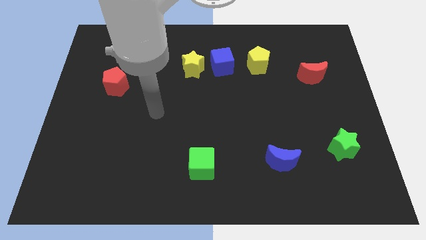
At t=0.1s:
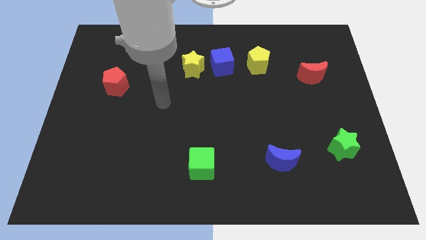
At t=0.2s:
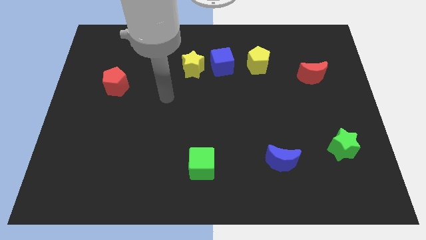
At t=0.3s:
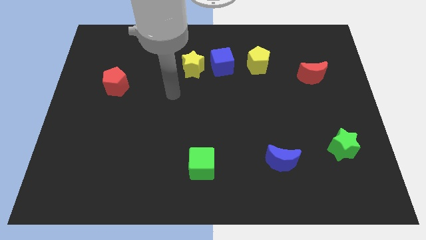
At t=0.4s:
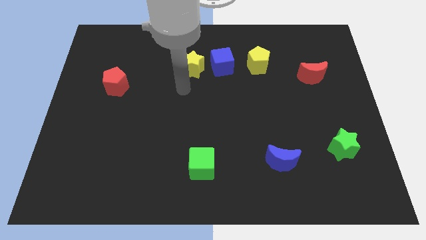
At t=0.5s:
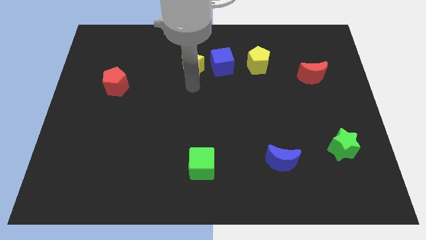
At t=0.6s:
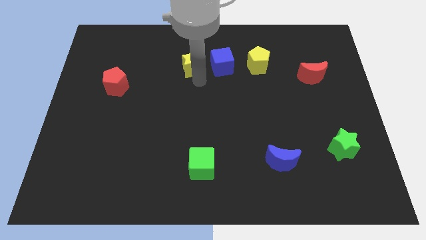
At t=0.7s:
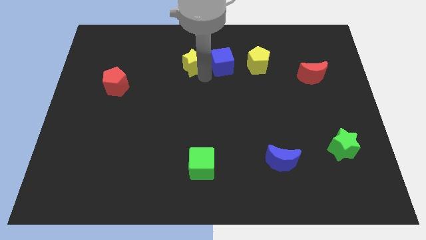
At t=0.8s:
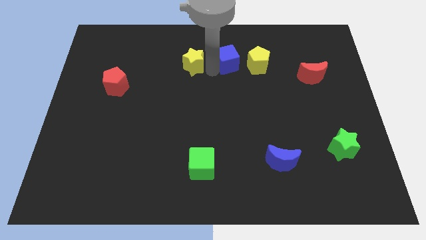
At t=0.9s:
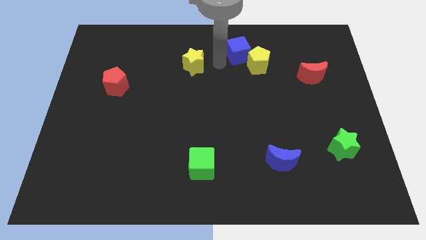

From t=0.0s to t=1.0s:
move the yellow star away from the blue cube

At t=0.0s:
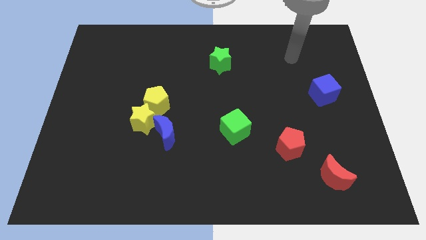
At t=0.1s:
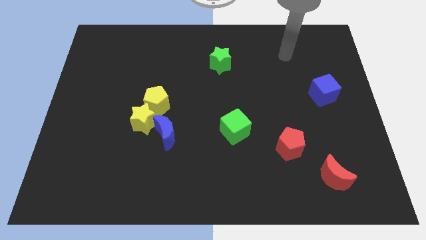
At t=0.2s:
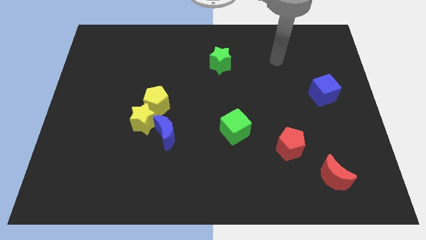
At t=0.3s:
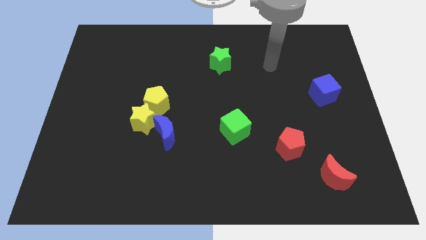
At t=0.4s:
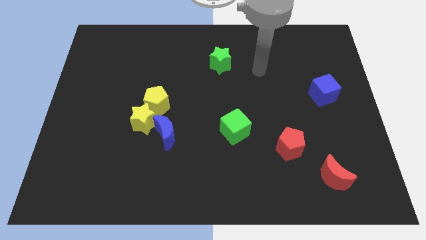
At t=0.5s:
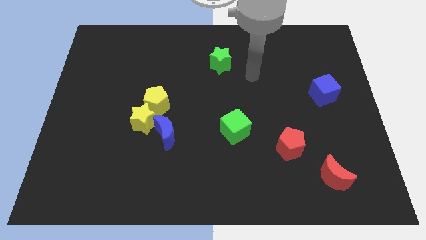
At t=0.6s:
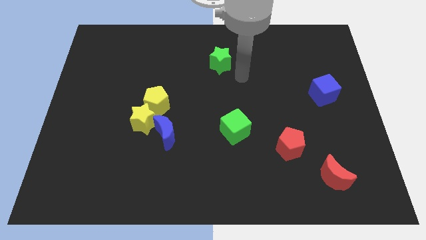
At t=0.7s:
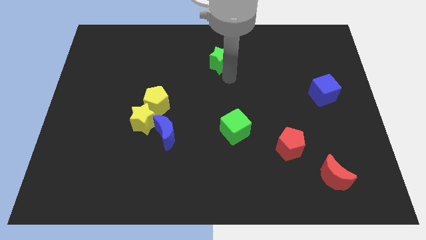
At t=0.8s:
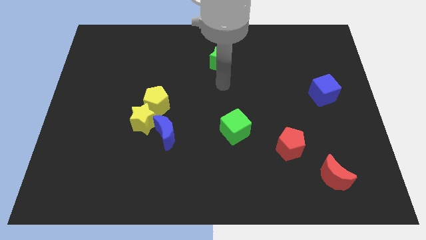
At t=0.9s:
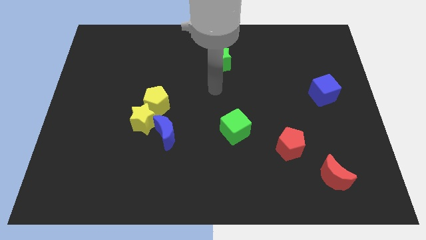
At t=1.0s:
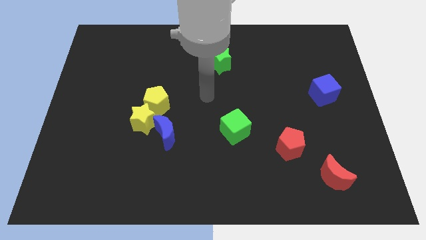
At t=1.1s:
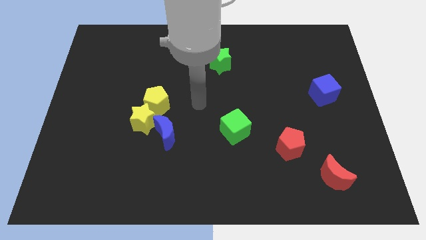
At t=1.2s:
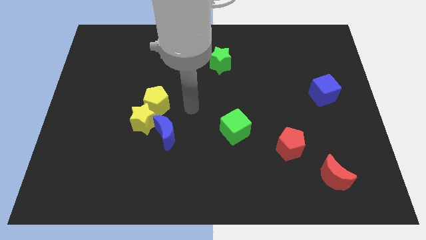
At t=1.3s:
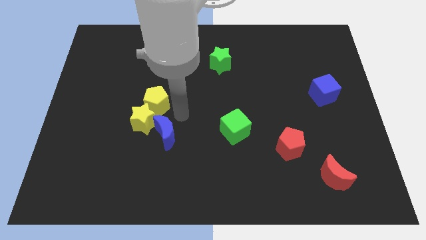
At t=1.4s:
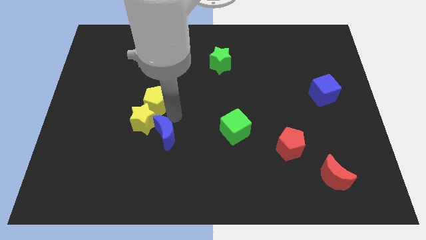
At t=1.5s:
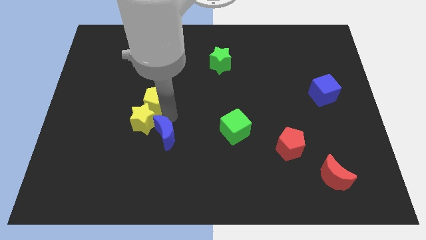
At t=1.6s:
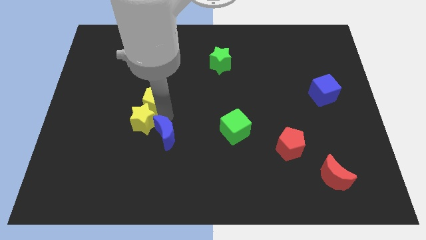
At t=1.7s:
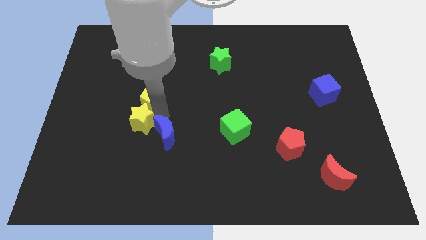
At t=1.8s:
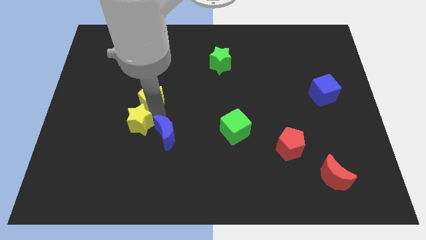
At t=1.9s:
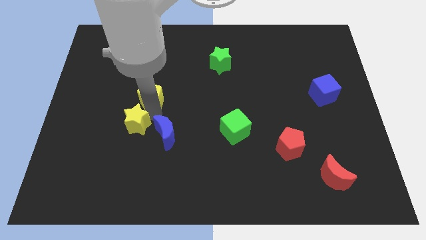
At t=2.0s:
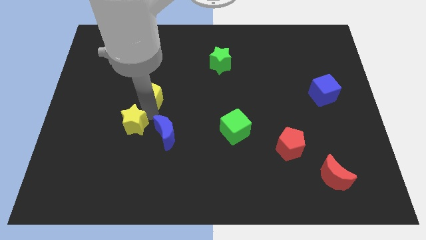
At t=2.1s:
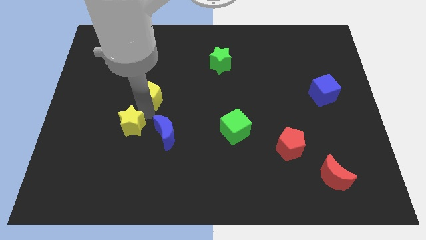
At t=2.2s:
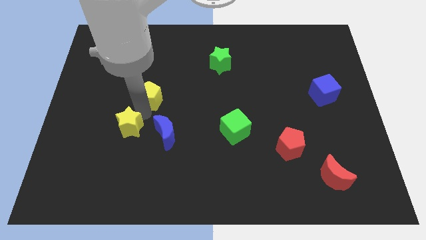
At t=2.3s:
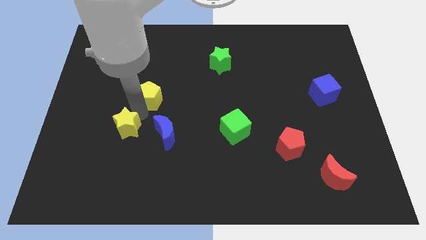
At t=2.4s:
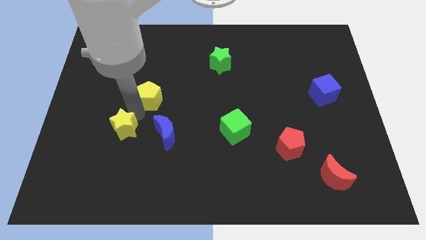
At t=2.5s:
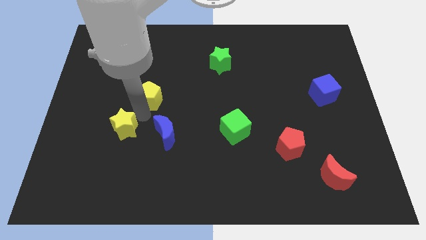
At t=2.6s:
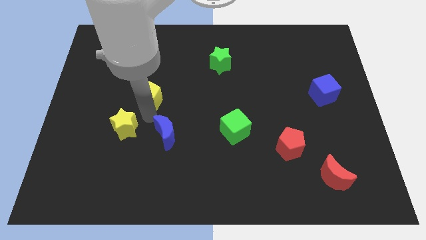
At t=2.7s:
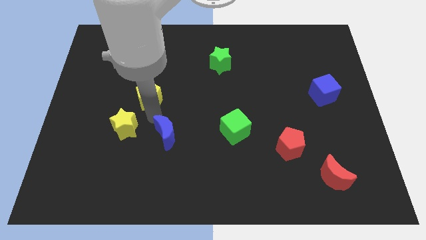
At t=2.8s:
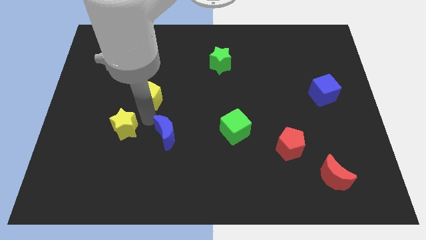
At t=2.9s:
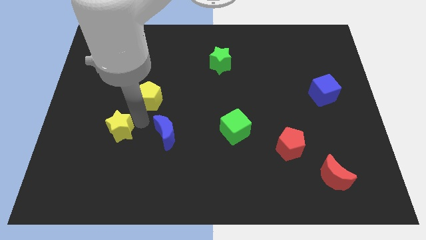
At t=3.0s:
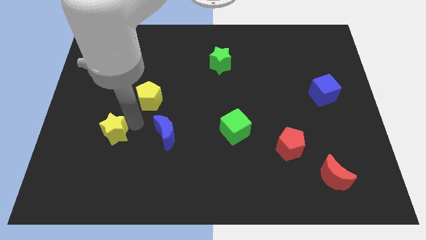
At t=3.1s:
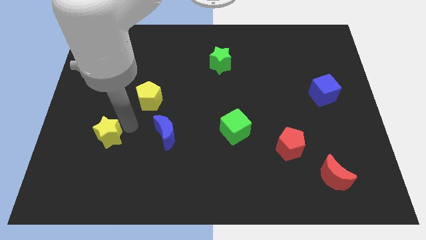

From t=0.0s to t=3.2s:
pull the yellow star apart from the yellow pentagon and blue moon

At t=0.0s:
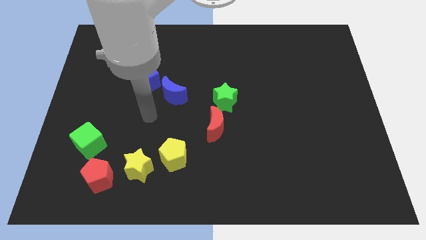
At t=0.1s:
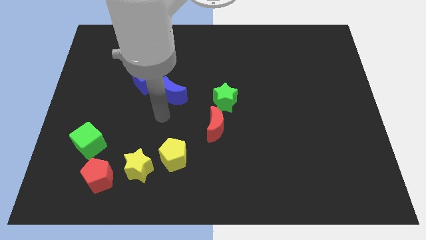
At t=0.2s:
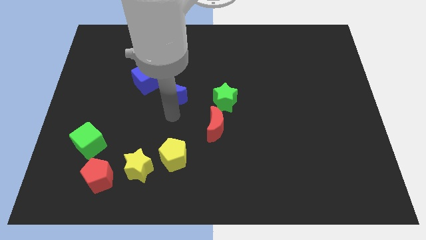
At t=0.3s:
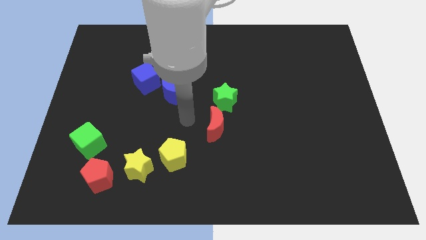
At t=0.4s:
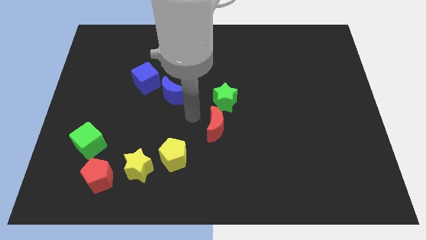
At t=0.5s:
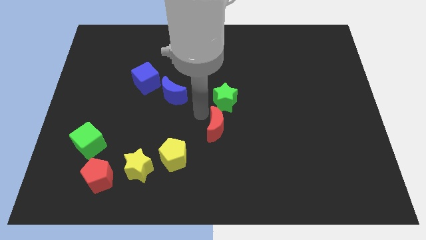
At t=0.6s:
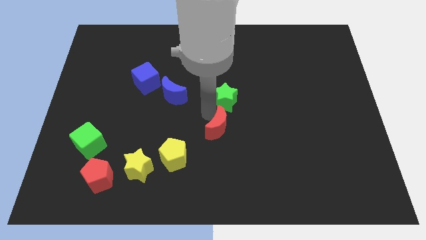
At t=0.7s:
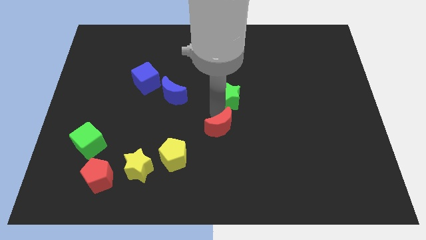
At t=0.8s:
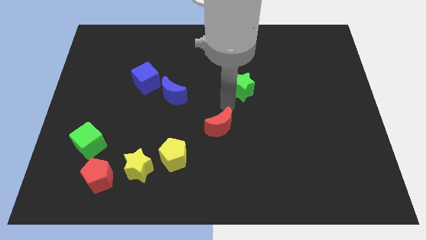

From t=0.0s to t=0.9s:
move the red moon away from the green star

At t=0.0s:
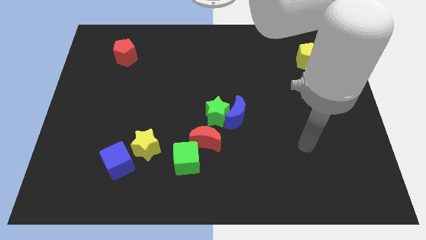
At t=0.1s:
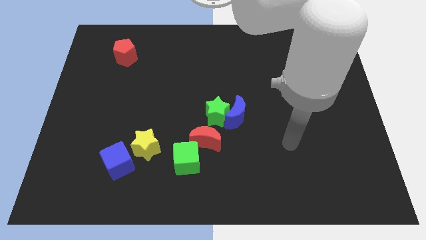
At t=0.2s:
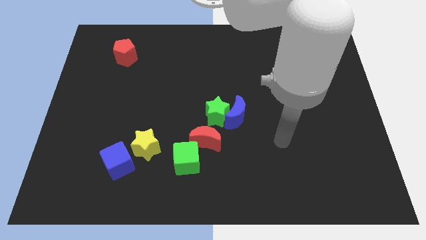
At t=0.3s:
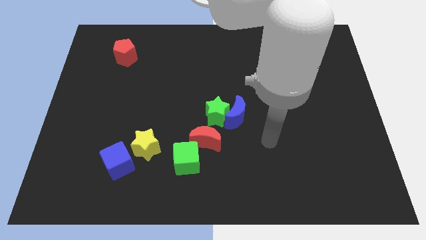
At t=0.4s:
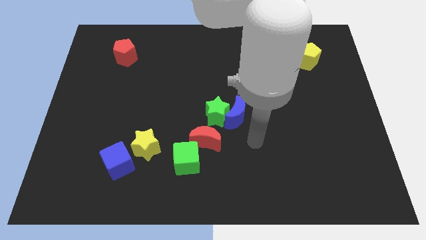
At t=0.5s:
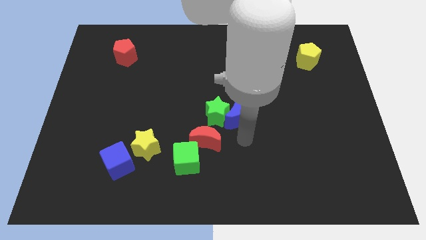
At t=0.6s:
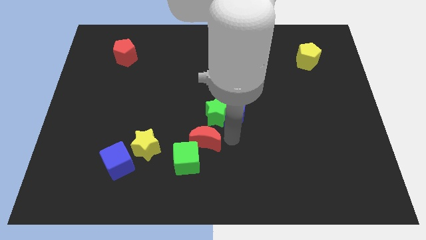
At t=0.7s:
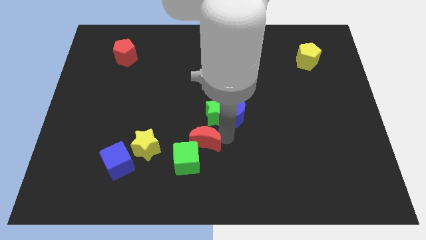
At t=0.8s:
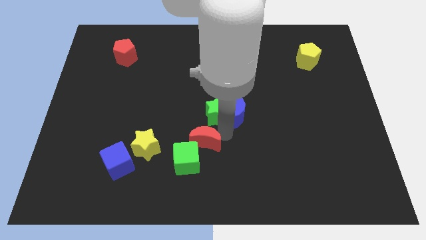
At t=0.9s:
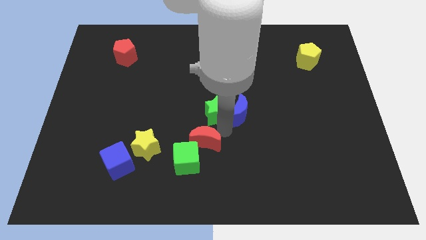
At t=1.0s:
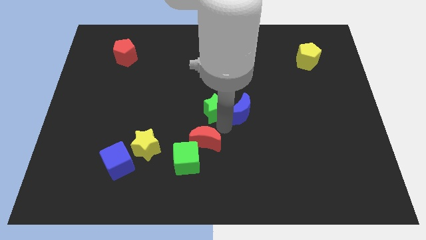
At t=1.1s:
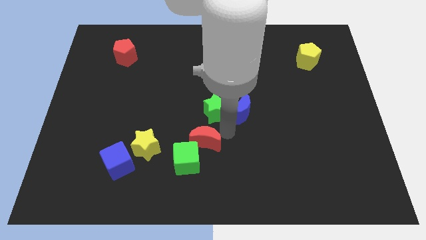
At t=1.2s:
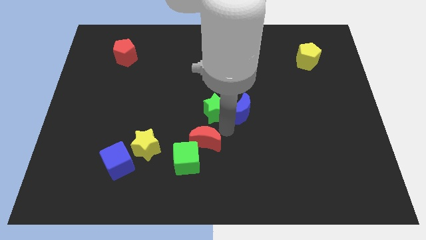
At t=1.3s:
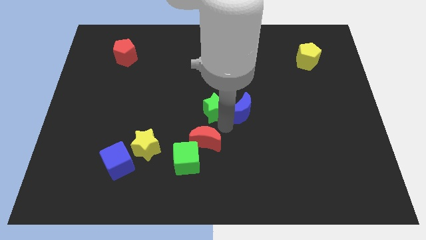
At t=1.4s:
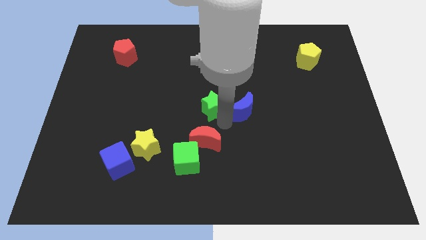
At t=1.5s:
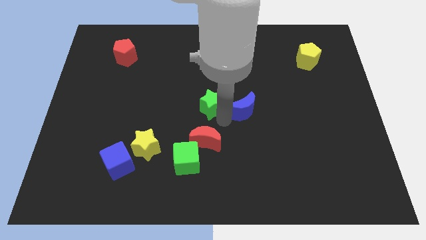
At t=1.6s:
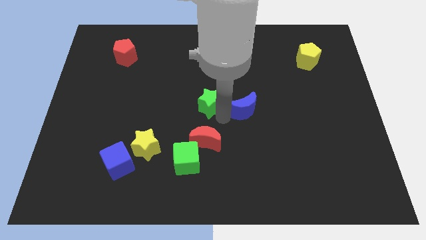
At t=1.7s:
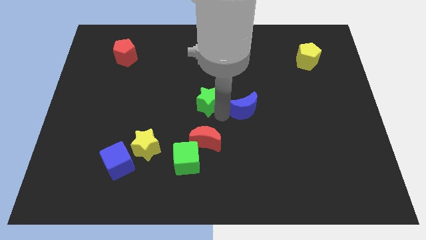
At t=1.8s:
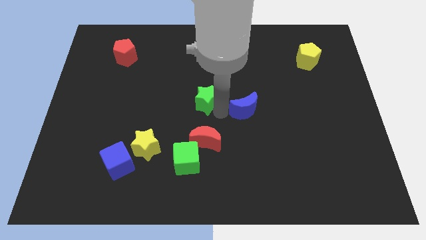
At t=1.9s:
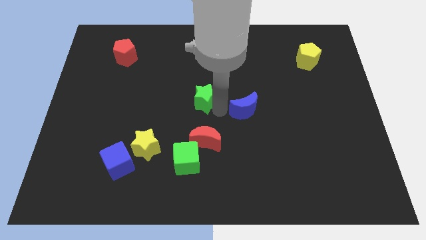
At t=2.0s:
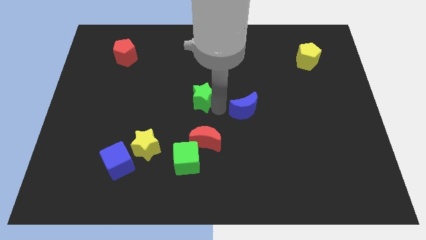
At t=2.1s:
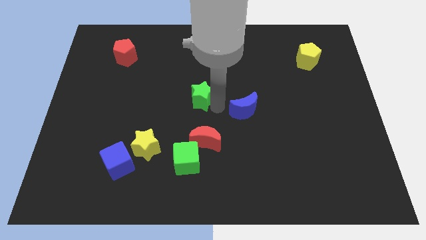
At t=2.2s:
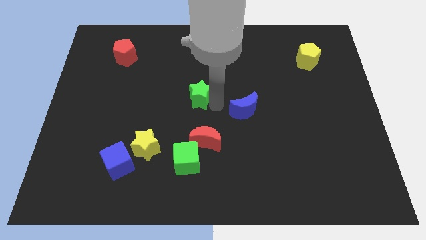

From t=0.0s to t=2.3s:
move the green star away from the blue moon and red moon

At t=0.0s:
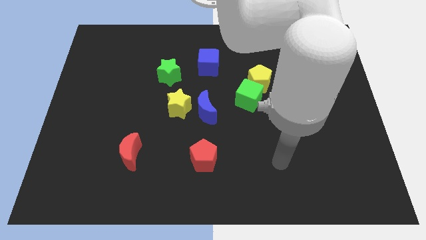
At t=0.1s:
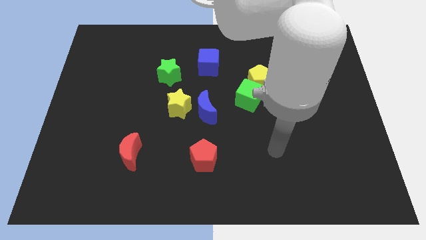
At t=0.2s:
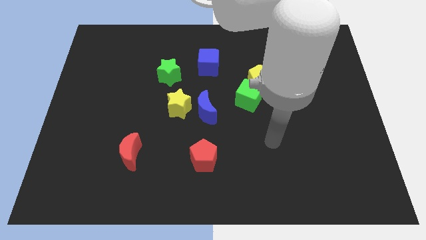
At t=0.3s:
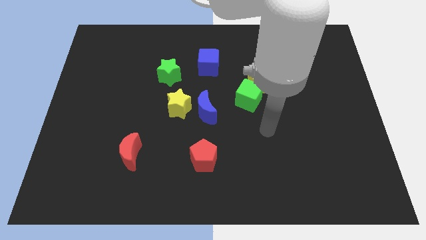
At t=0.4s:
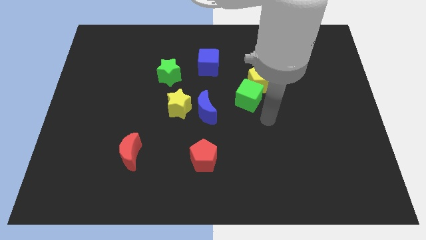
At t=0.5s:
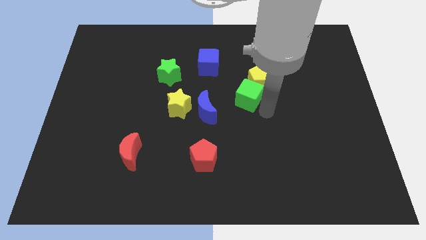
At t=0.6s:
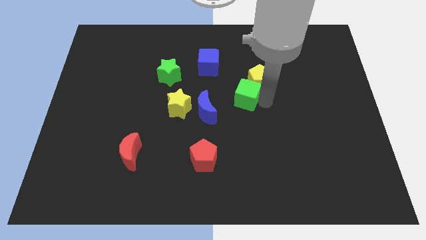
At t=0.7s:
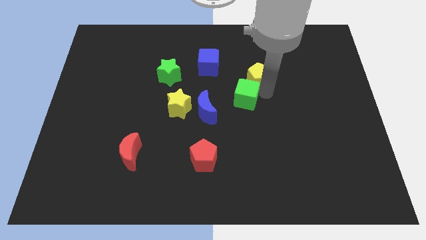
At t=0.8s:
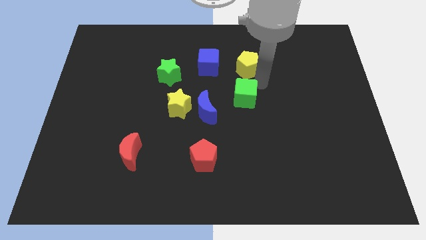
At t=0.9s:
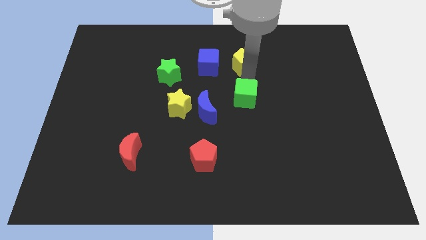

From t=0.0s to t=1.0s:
separate the green cube from the yellow pentagon

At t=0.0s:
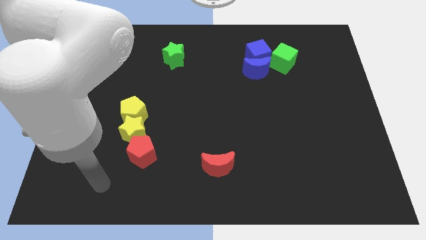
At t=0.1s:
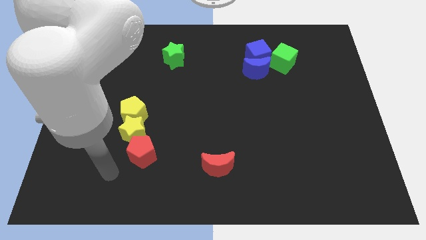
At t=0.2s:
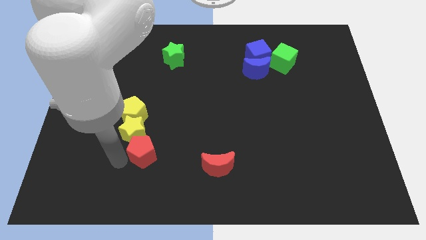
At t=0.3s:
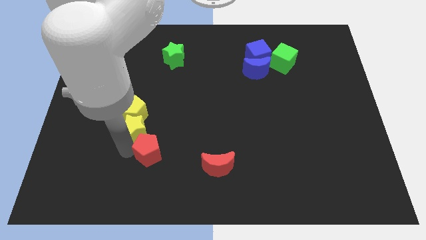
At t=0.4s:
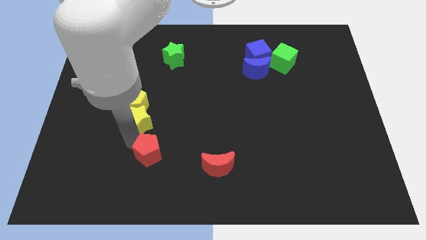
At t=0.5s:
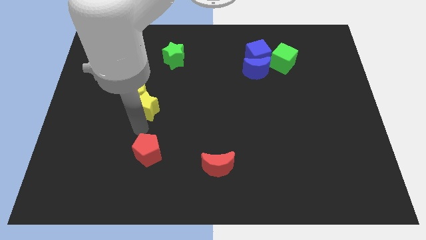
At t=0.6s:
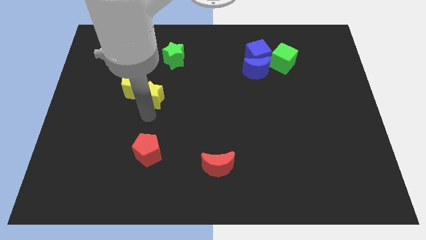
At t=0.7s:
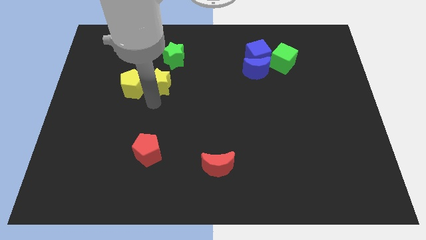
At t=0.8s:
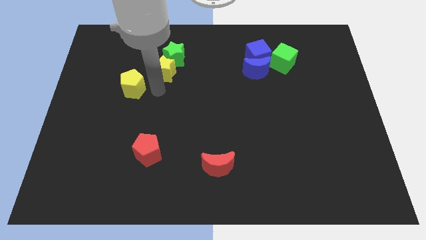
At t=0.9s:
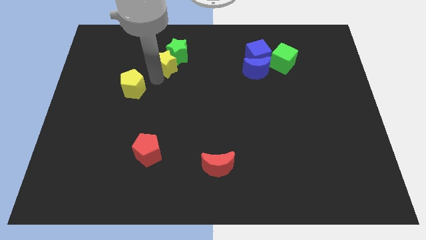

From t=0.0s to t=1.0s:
pull the yellow pentagon apart from the yellow star
